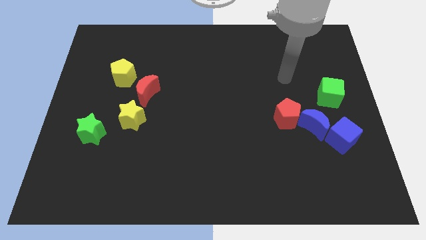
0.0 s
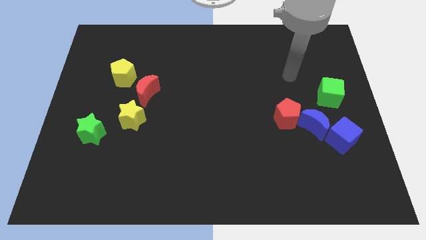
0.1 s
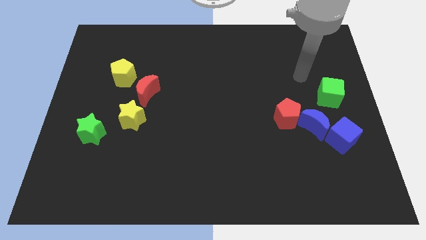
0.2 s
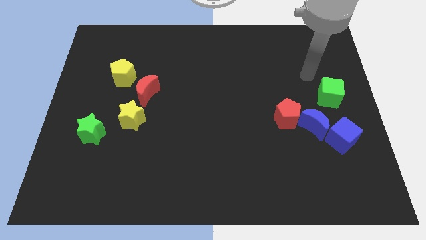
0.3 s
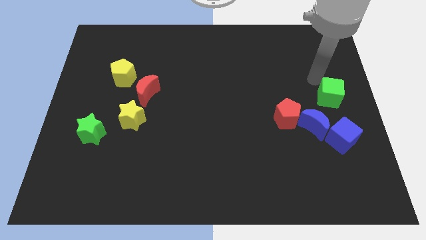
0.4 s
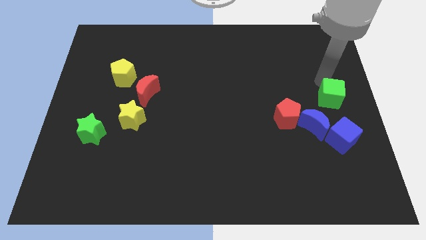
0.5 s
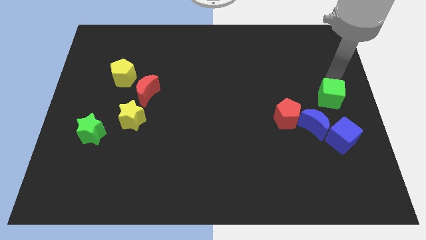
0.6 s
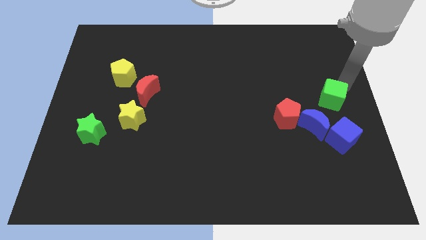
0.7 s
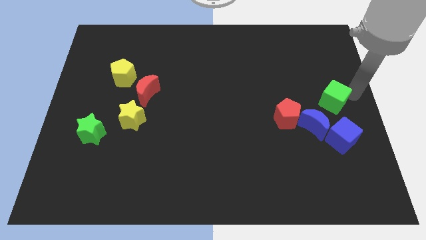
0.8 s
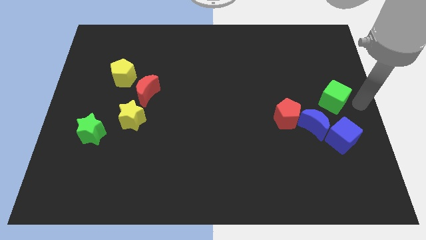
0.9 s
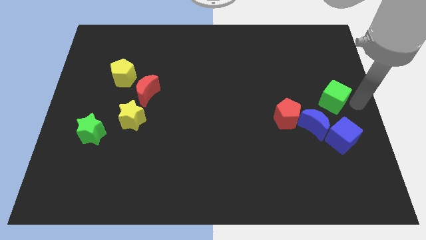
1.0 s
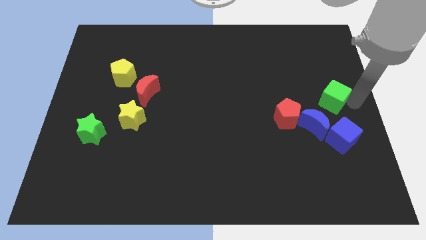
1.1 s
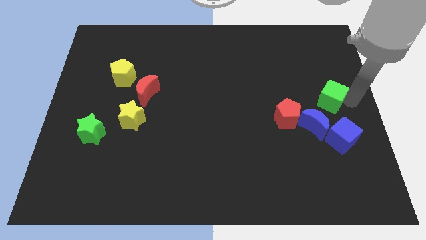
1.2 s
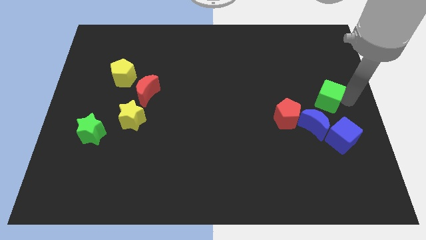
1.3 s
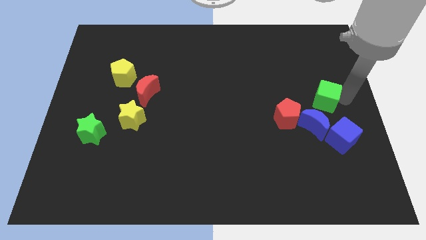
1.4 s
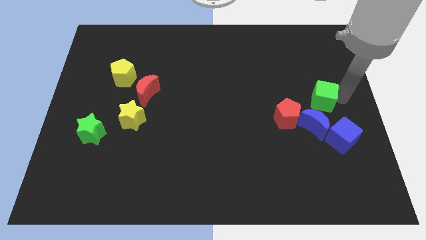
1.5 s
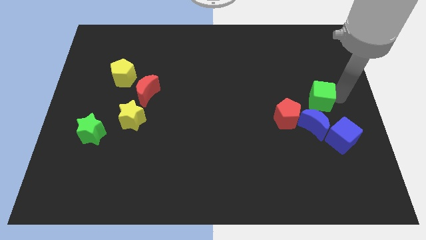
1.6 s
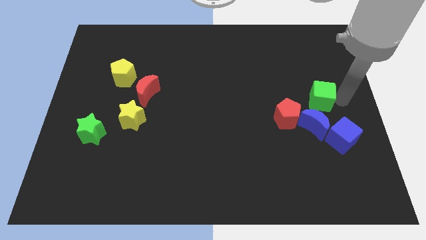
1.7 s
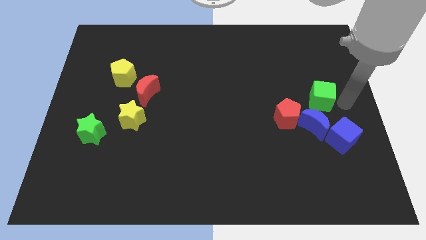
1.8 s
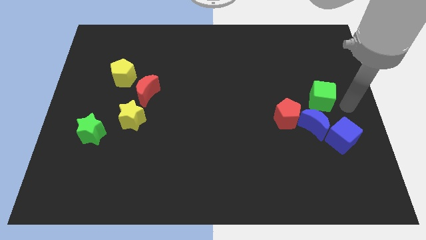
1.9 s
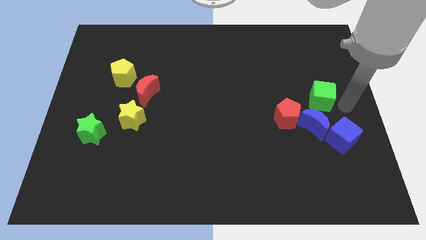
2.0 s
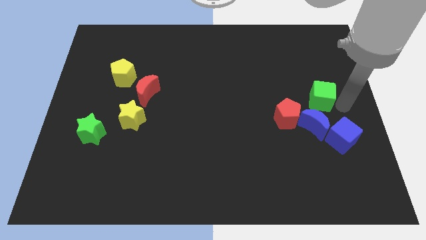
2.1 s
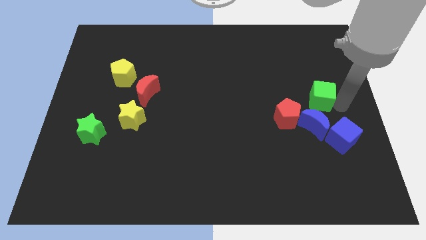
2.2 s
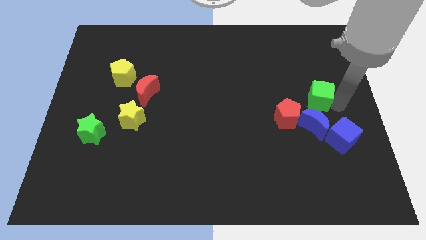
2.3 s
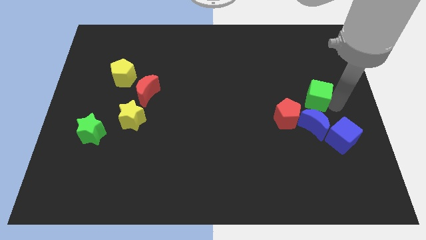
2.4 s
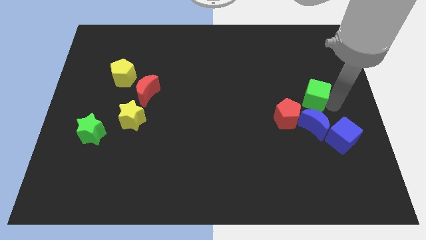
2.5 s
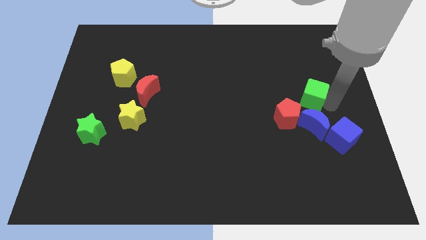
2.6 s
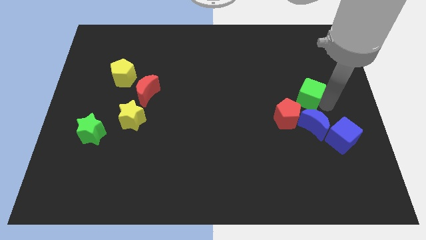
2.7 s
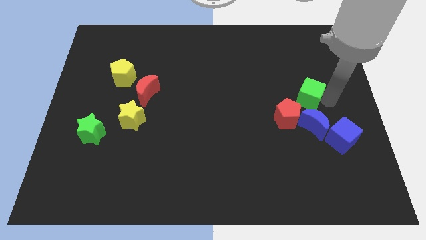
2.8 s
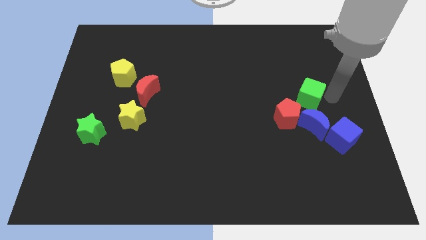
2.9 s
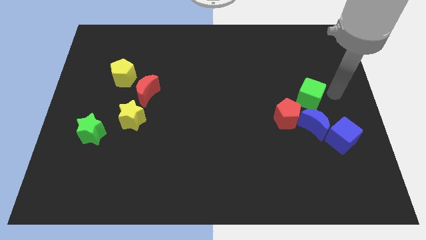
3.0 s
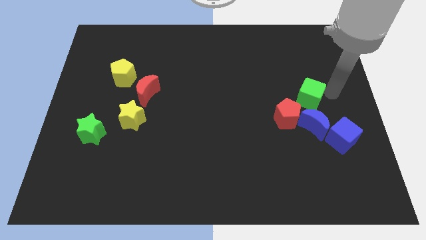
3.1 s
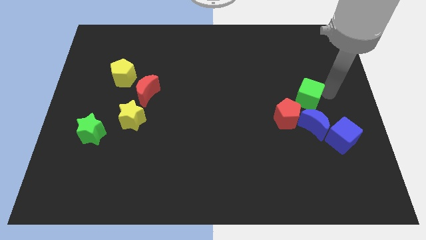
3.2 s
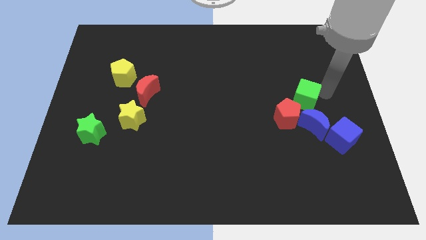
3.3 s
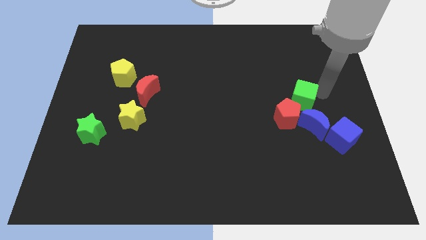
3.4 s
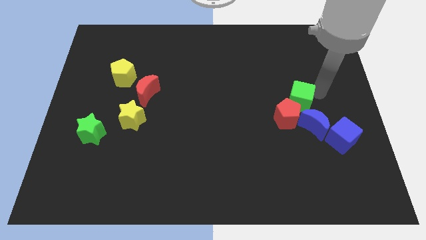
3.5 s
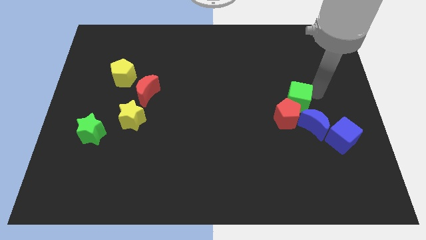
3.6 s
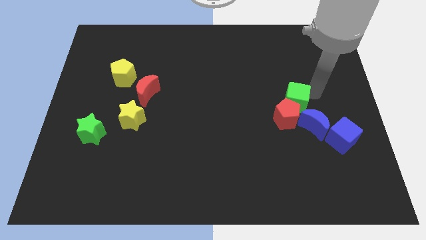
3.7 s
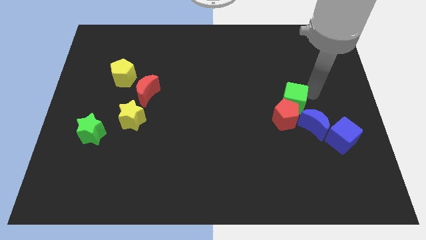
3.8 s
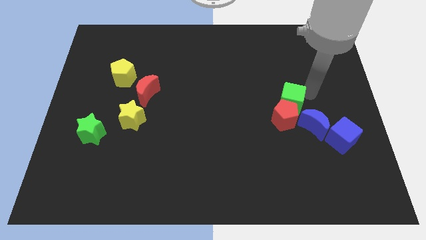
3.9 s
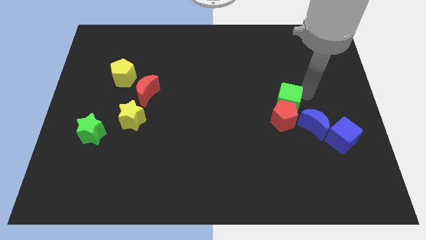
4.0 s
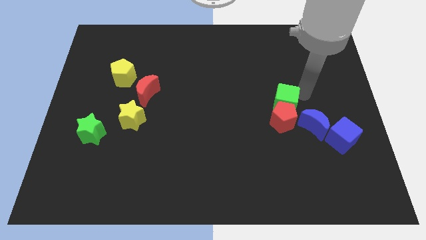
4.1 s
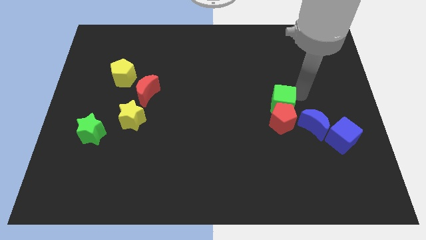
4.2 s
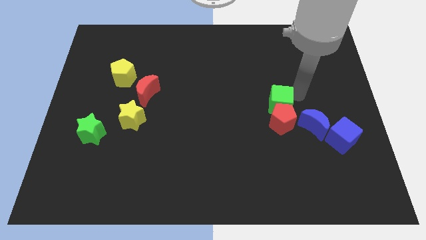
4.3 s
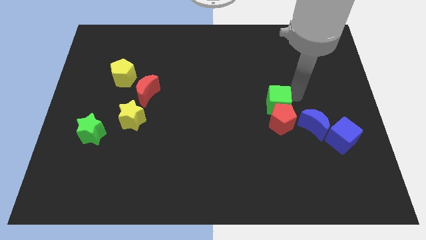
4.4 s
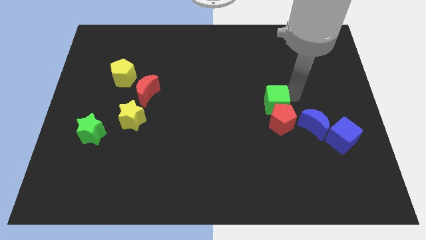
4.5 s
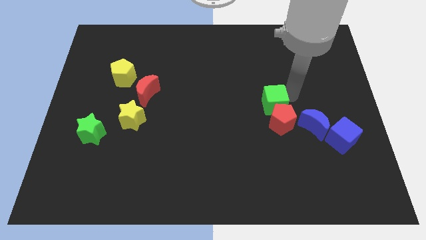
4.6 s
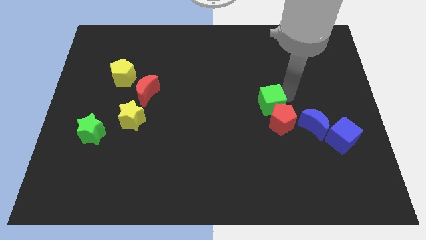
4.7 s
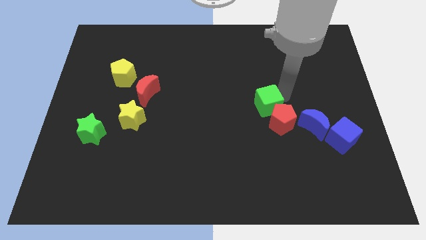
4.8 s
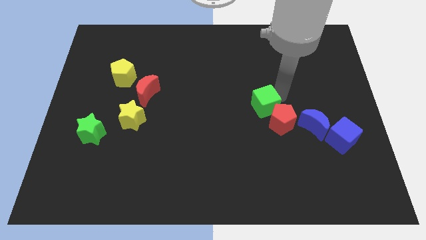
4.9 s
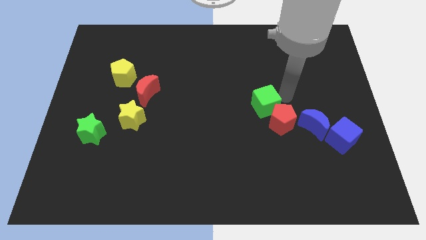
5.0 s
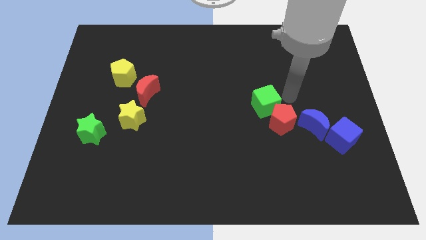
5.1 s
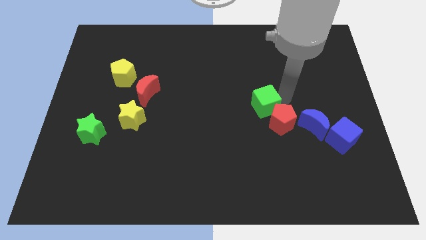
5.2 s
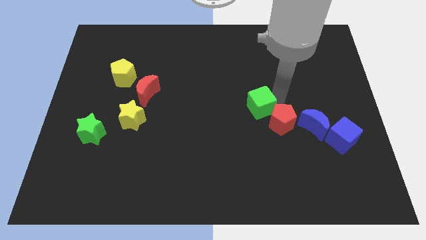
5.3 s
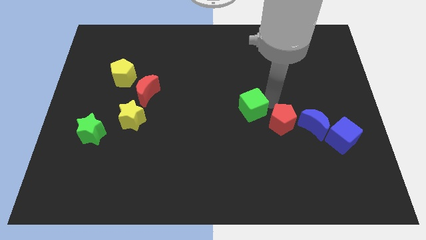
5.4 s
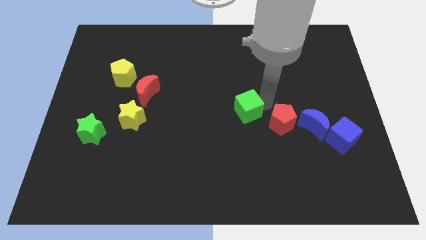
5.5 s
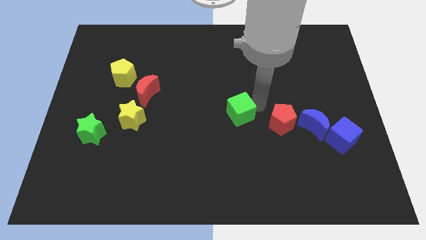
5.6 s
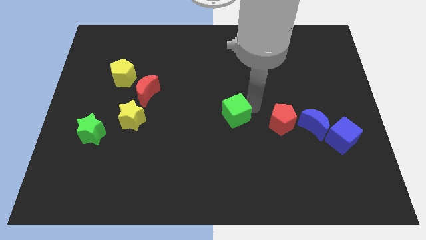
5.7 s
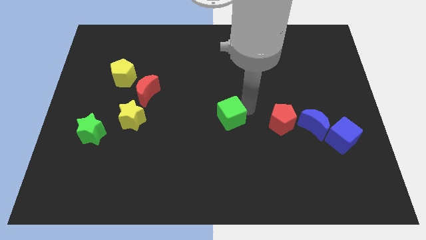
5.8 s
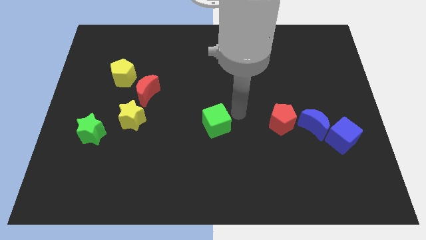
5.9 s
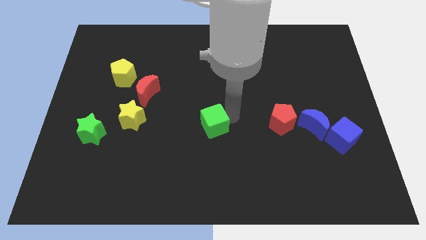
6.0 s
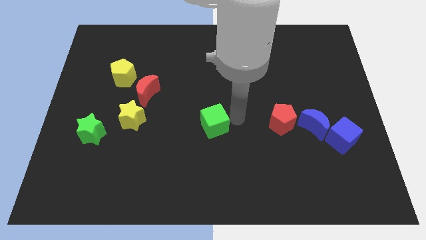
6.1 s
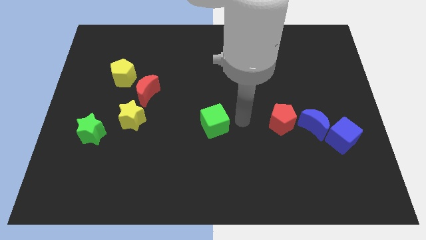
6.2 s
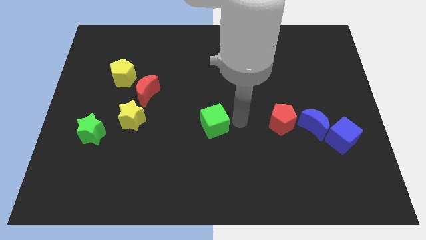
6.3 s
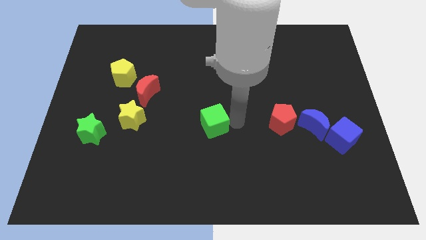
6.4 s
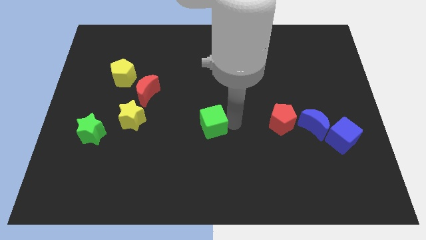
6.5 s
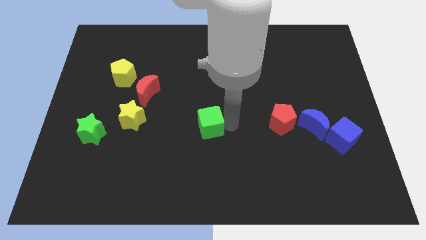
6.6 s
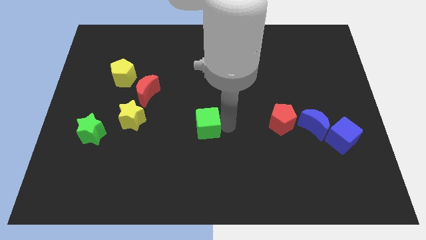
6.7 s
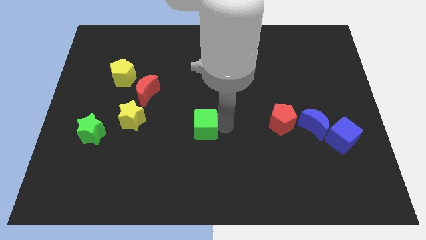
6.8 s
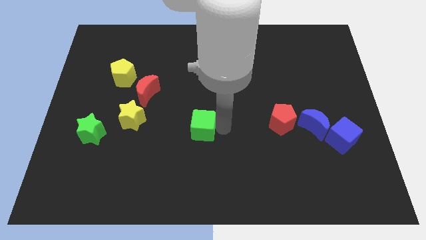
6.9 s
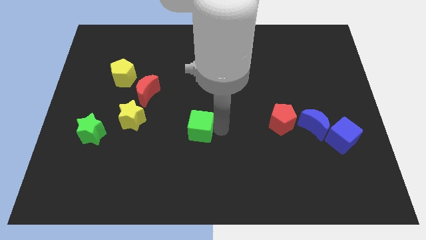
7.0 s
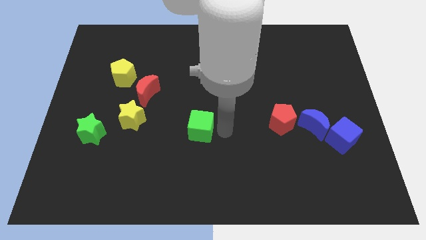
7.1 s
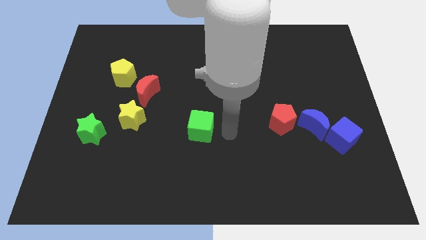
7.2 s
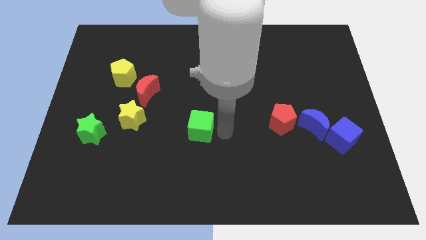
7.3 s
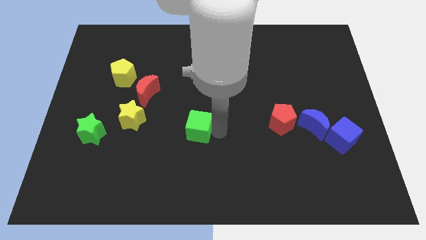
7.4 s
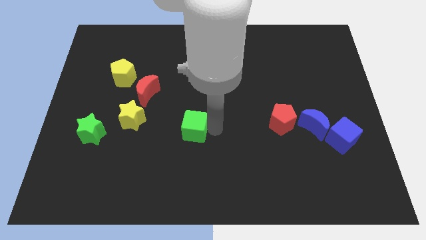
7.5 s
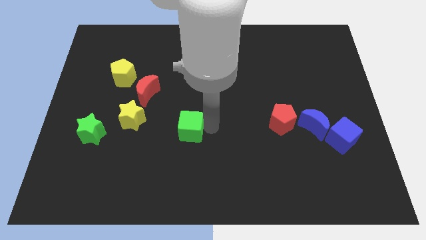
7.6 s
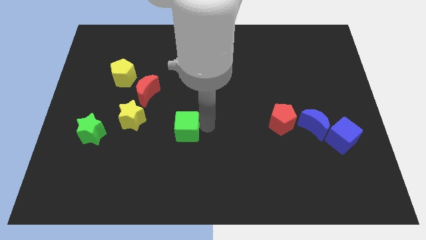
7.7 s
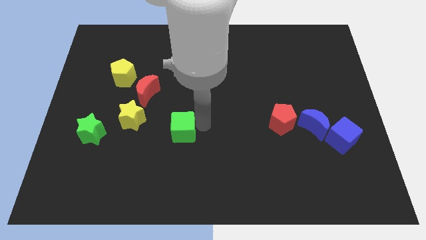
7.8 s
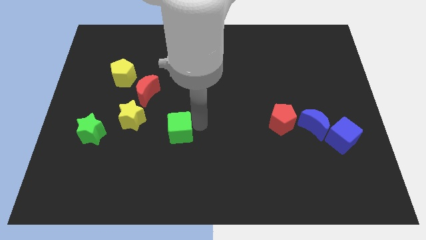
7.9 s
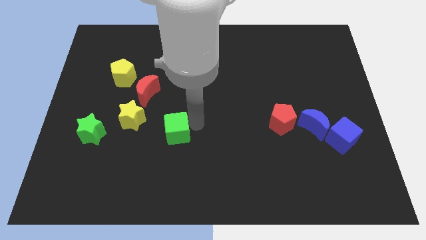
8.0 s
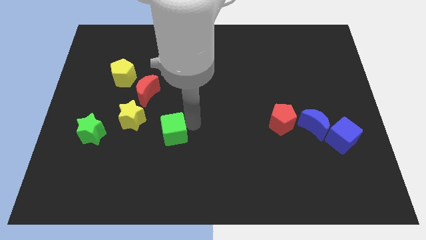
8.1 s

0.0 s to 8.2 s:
put the green cube diagonally down and to the right of the yellow star
